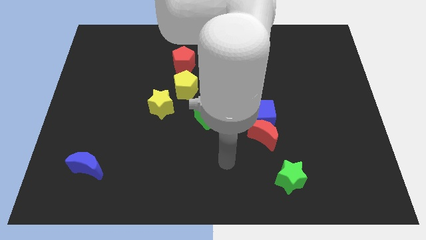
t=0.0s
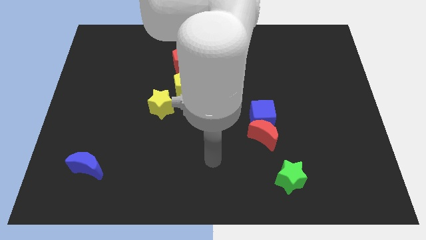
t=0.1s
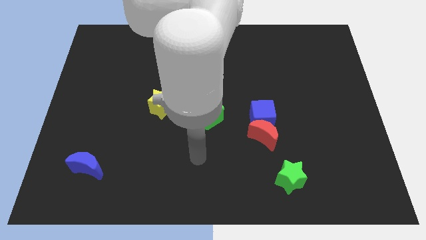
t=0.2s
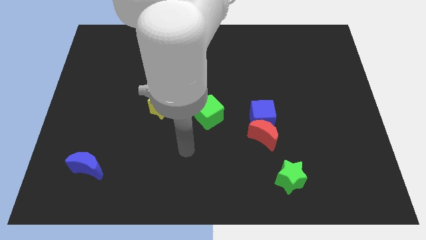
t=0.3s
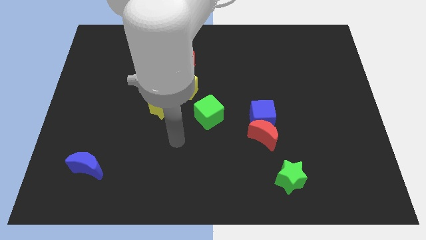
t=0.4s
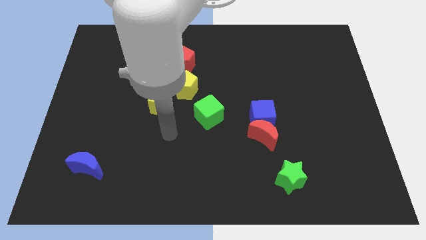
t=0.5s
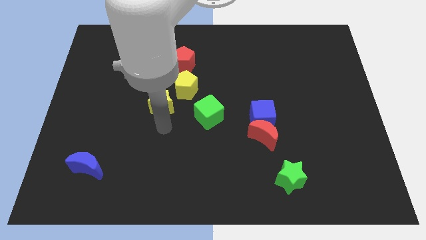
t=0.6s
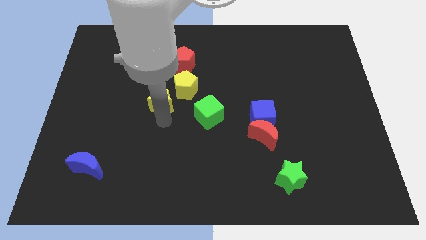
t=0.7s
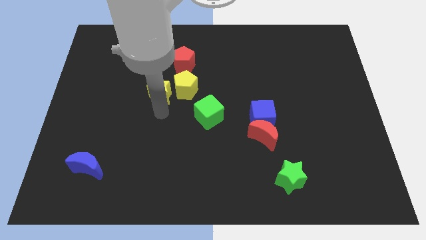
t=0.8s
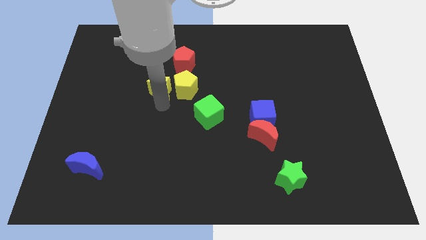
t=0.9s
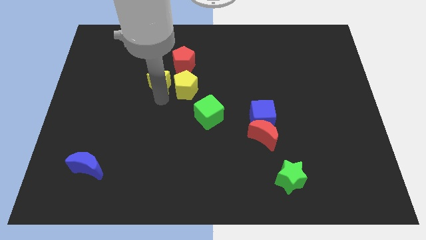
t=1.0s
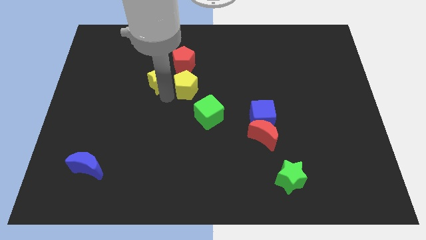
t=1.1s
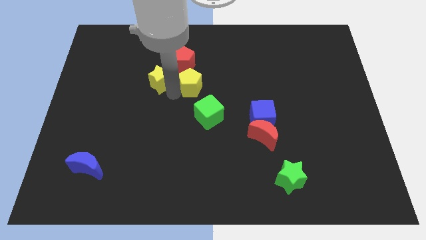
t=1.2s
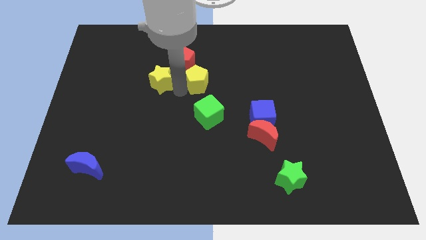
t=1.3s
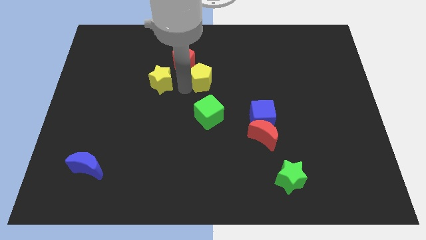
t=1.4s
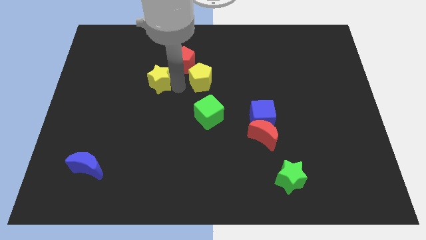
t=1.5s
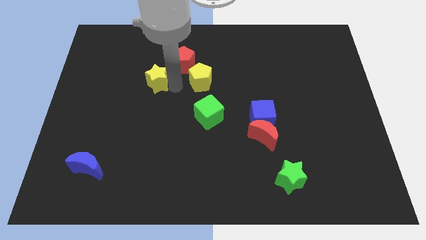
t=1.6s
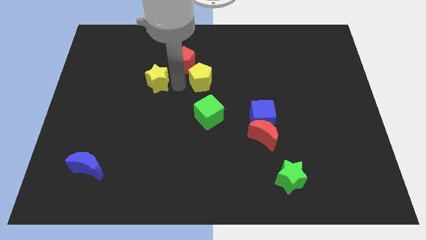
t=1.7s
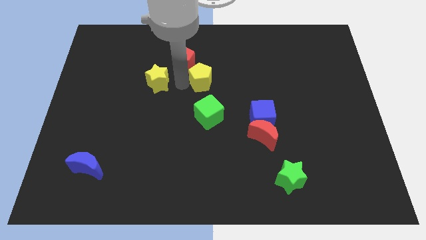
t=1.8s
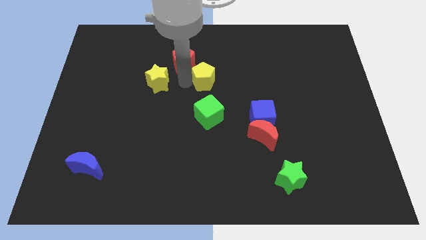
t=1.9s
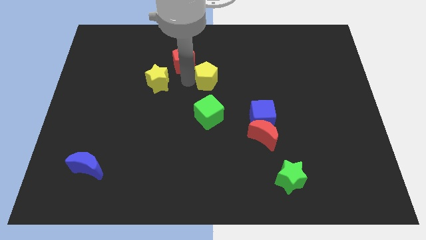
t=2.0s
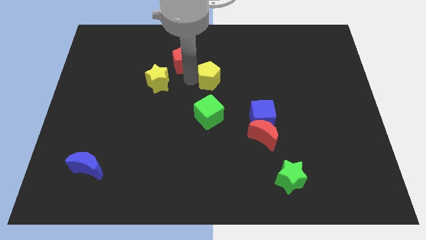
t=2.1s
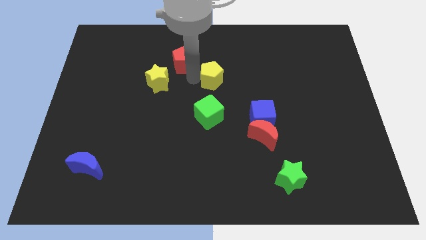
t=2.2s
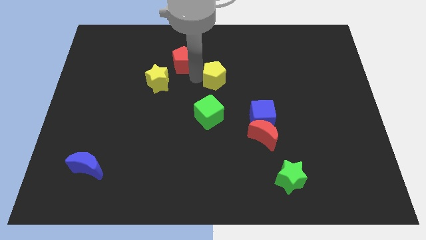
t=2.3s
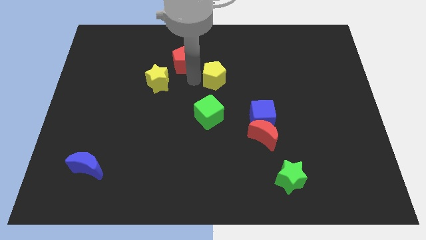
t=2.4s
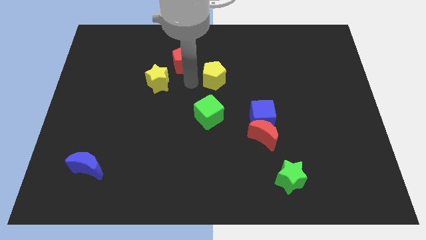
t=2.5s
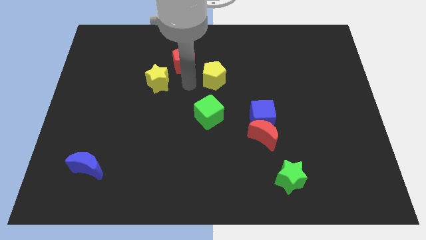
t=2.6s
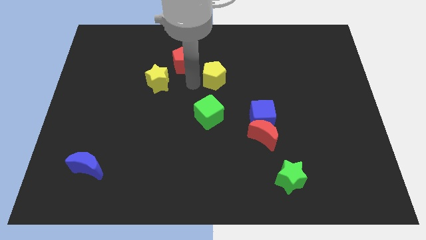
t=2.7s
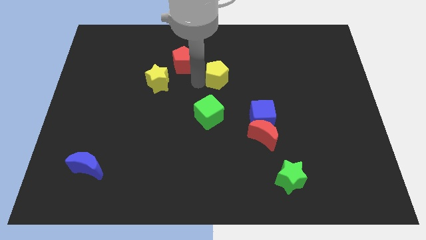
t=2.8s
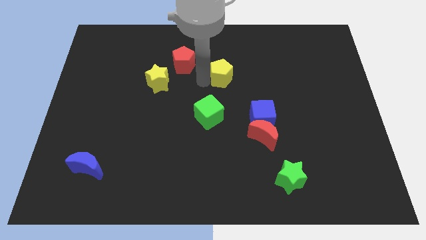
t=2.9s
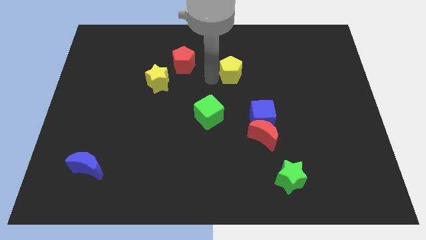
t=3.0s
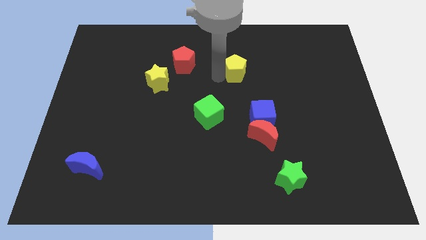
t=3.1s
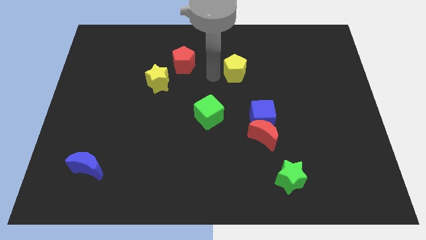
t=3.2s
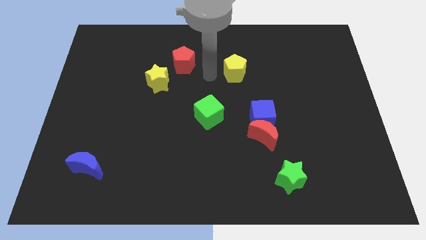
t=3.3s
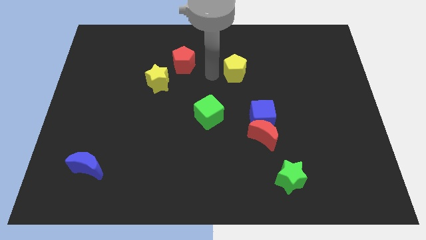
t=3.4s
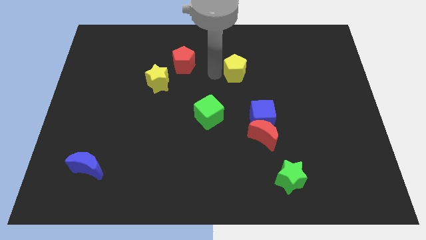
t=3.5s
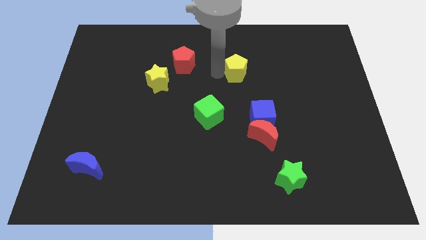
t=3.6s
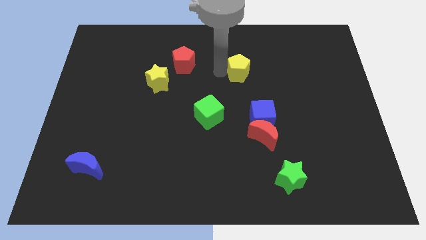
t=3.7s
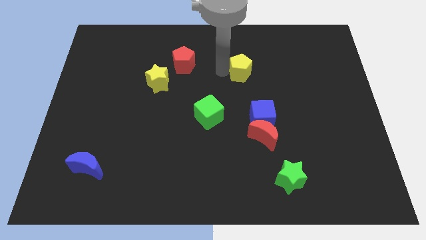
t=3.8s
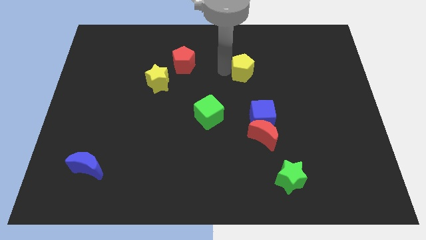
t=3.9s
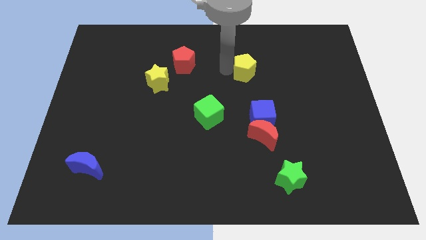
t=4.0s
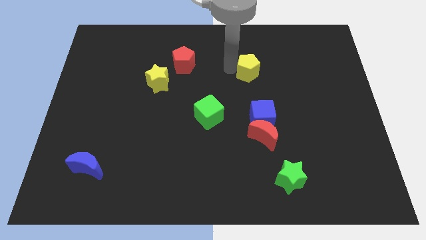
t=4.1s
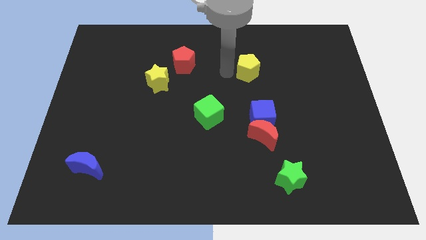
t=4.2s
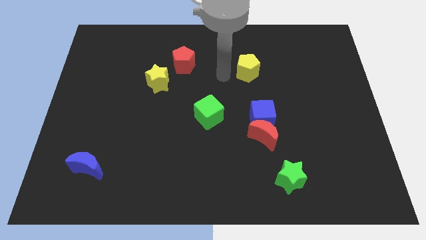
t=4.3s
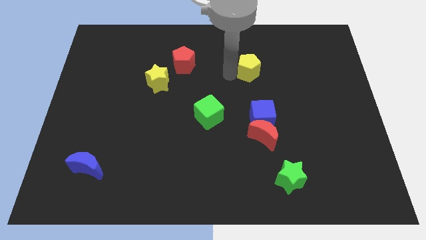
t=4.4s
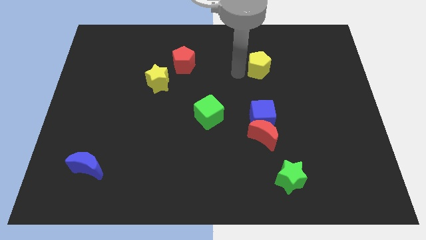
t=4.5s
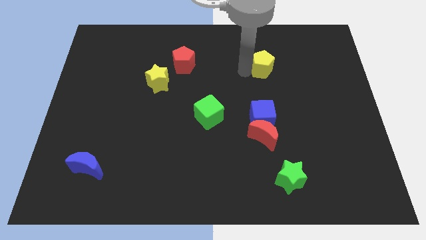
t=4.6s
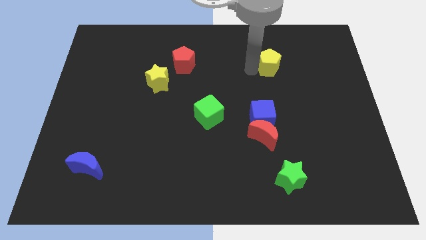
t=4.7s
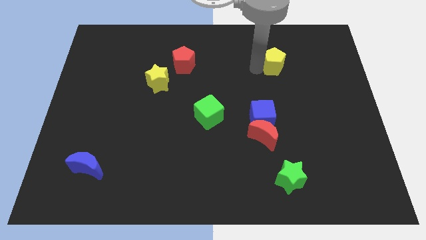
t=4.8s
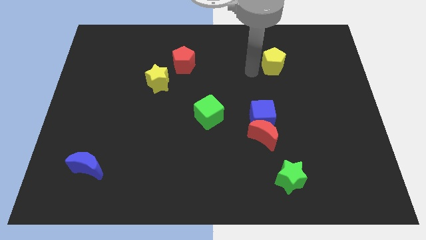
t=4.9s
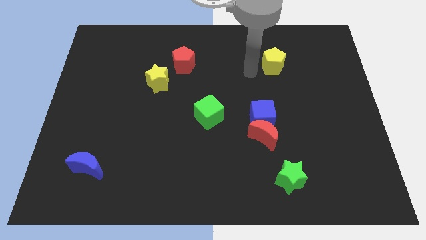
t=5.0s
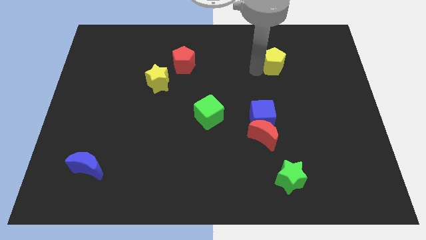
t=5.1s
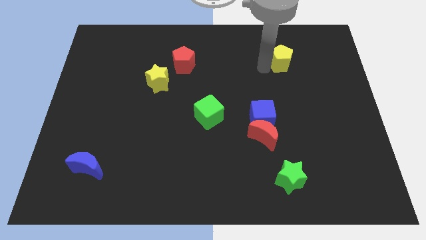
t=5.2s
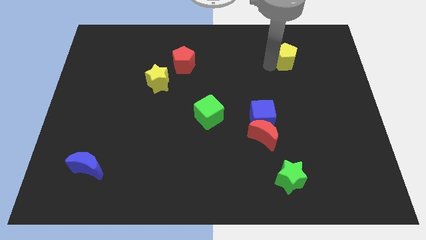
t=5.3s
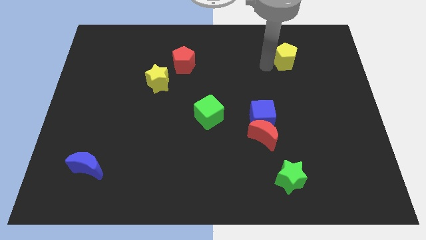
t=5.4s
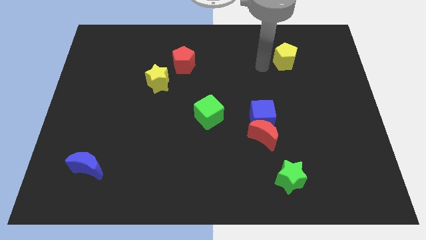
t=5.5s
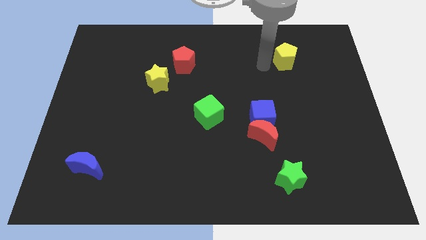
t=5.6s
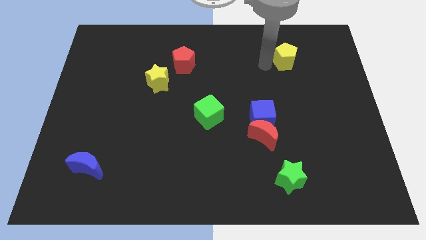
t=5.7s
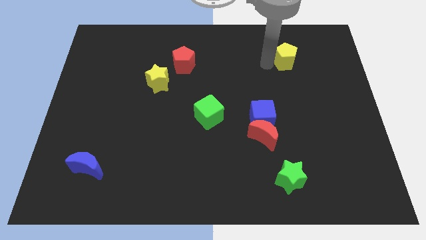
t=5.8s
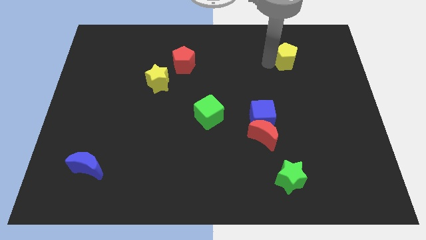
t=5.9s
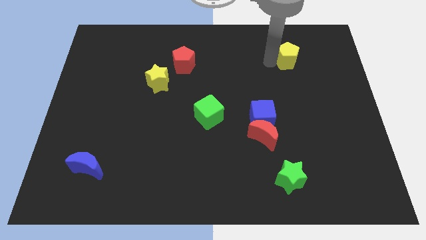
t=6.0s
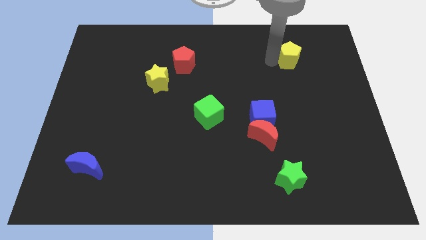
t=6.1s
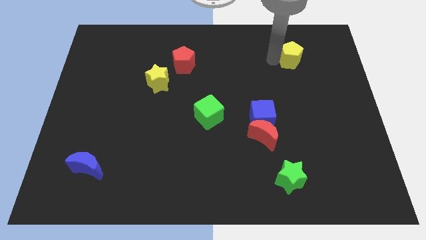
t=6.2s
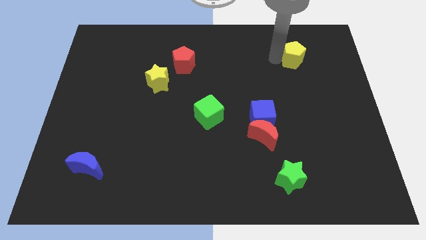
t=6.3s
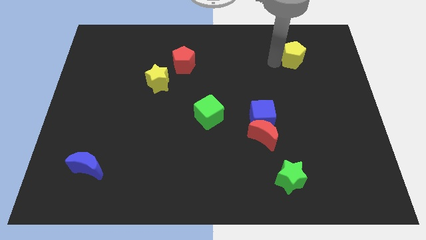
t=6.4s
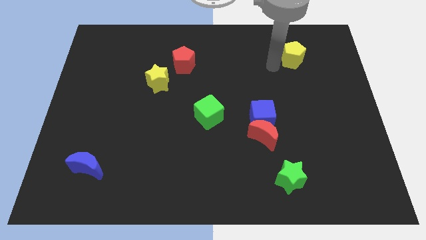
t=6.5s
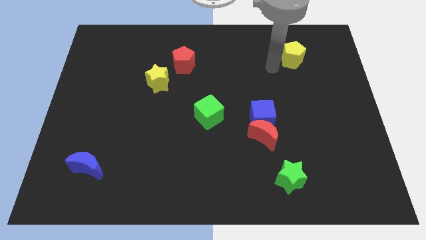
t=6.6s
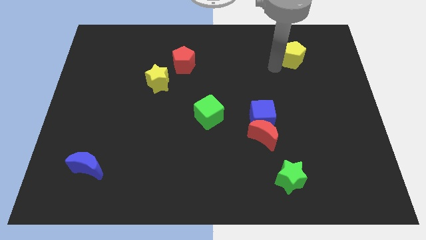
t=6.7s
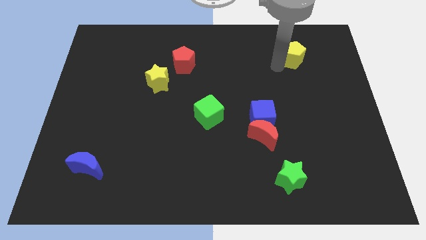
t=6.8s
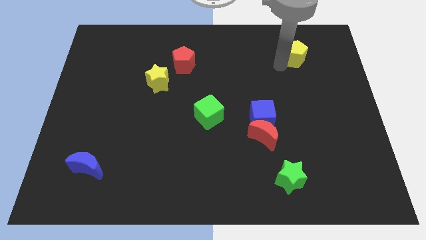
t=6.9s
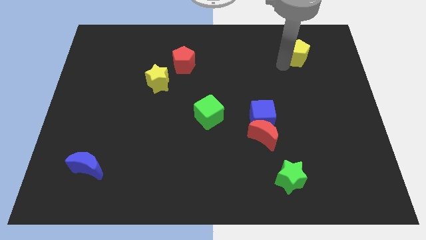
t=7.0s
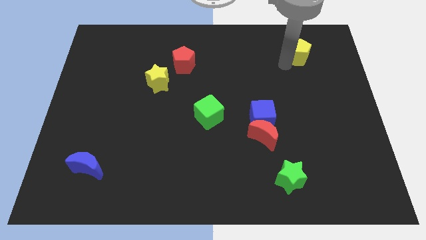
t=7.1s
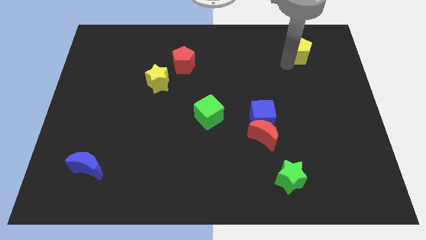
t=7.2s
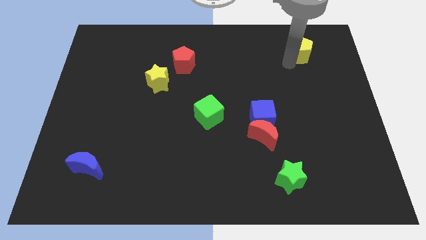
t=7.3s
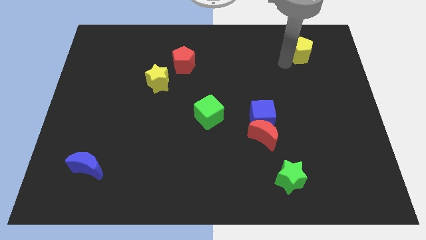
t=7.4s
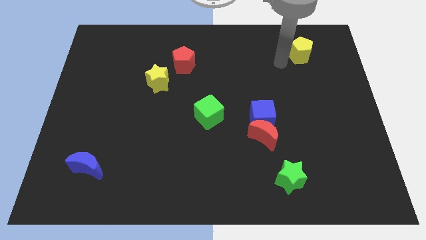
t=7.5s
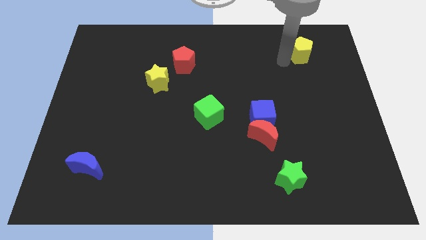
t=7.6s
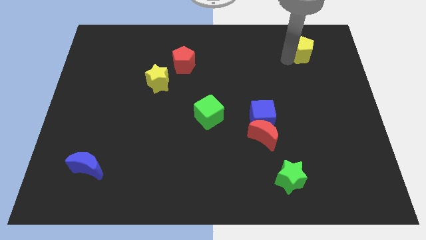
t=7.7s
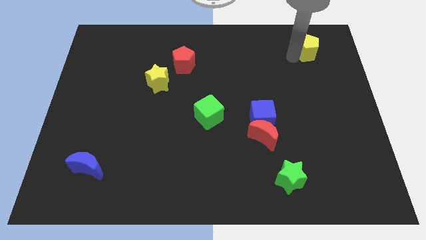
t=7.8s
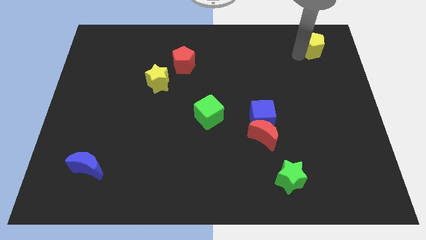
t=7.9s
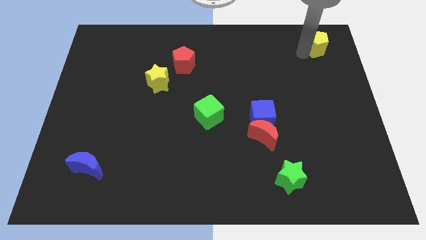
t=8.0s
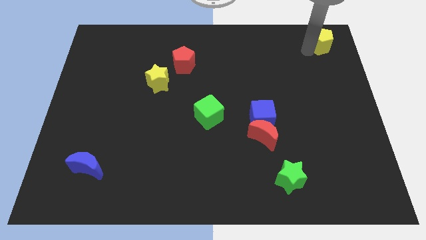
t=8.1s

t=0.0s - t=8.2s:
slide the yellow pentagon to the top right
